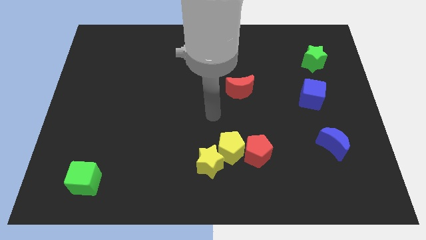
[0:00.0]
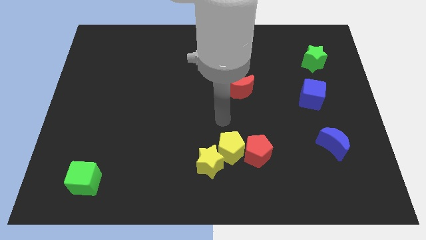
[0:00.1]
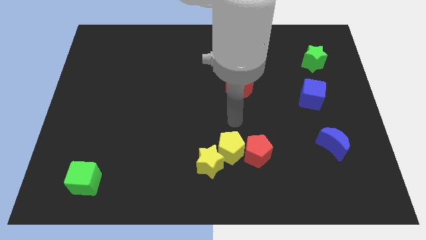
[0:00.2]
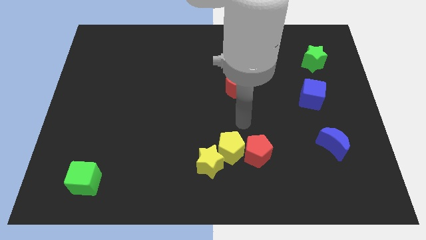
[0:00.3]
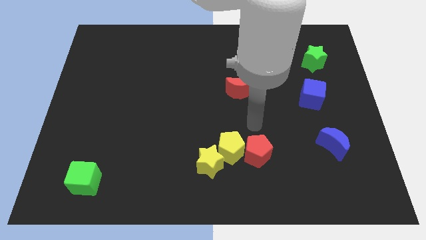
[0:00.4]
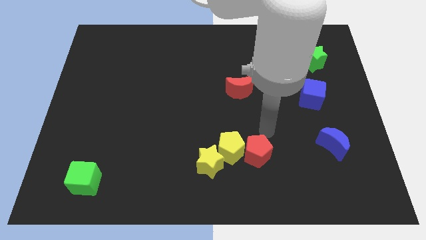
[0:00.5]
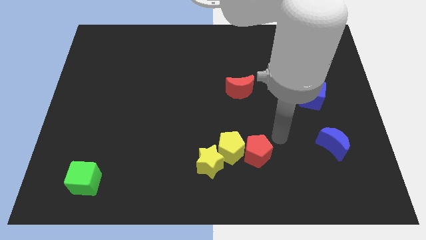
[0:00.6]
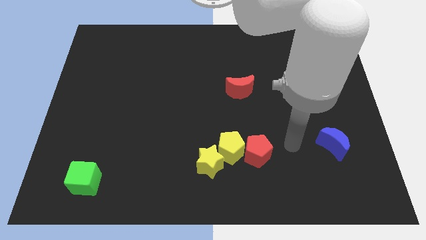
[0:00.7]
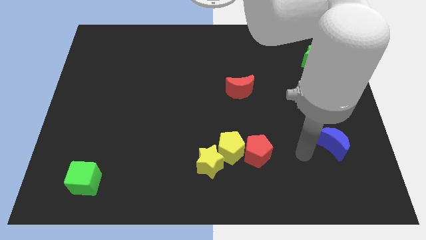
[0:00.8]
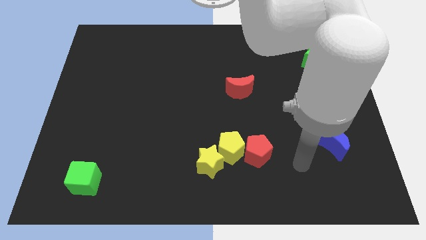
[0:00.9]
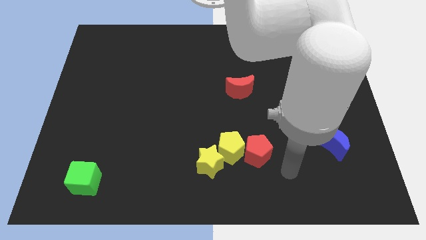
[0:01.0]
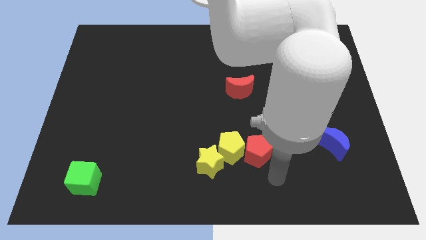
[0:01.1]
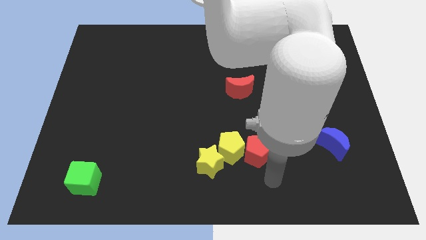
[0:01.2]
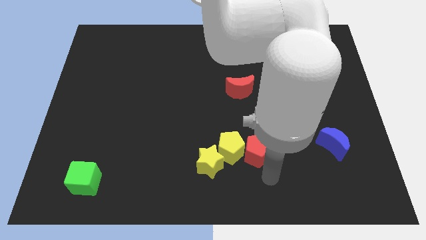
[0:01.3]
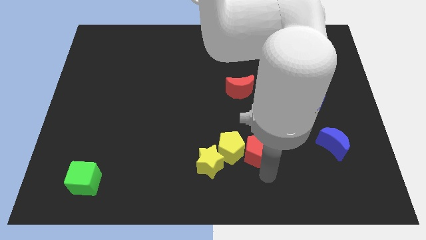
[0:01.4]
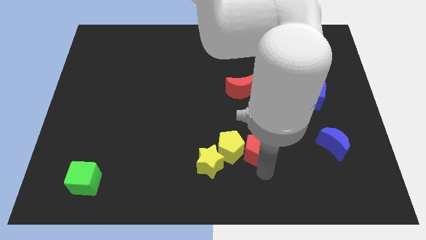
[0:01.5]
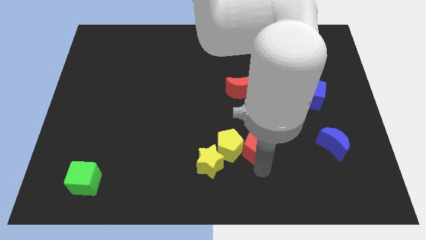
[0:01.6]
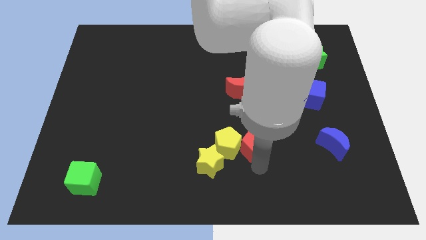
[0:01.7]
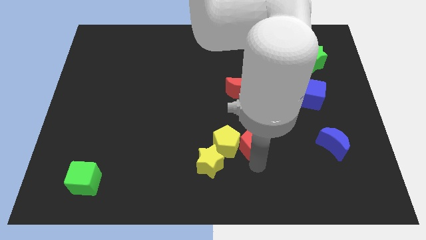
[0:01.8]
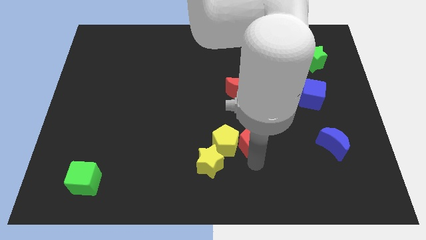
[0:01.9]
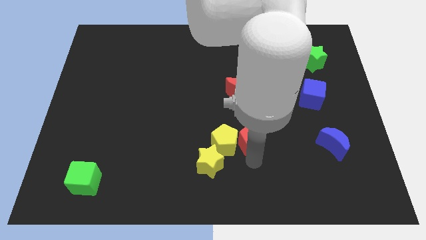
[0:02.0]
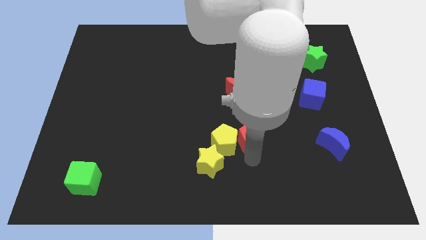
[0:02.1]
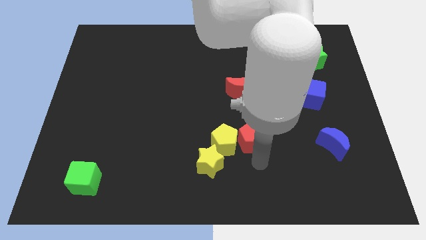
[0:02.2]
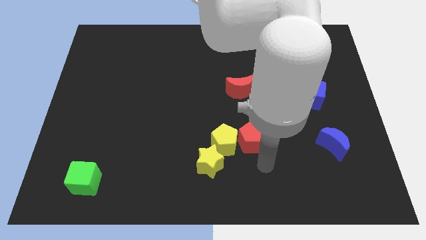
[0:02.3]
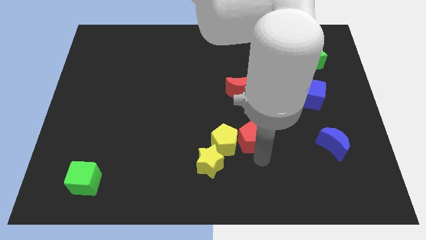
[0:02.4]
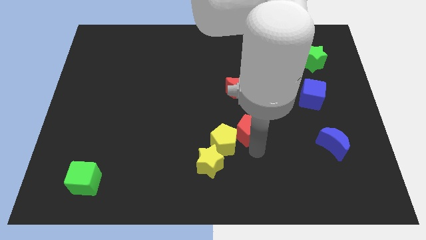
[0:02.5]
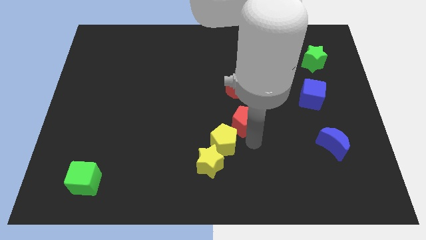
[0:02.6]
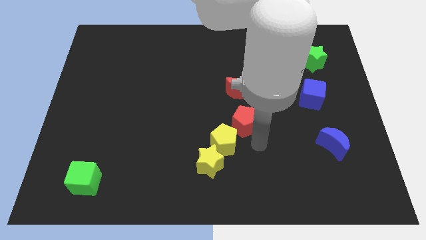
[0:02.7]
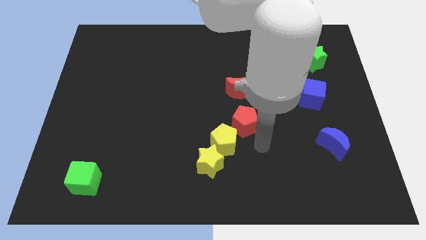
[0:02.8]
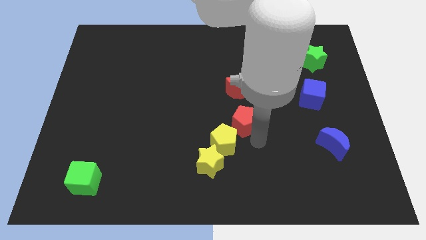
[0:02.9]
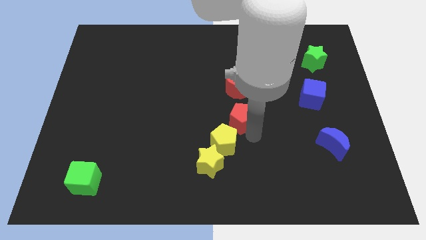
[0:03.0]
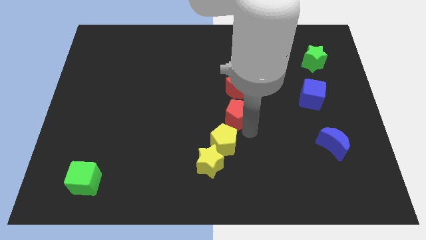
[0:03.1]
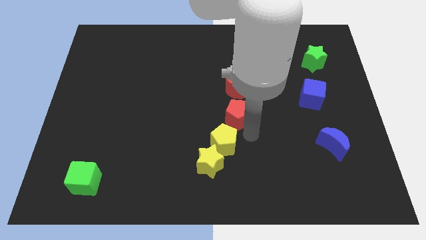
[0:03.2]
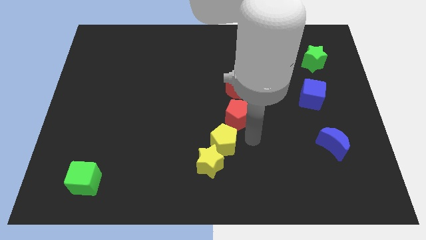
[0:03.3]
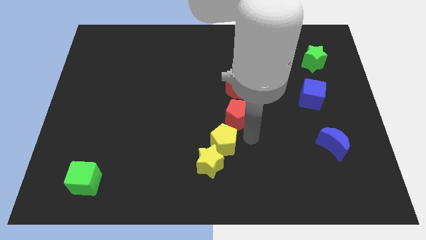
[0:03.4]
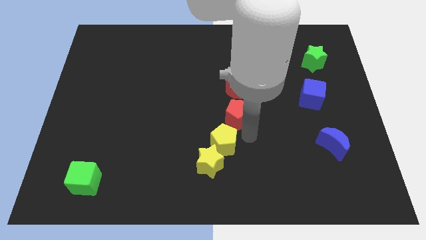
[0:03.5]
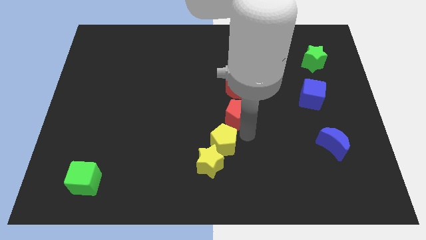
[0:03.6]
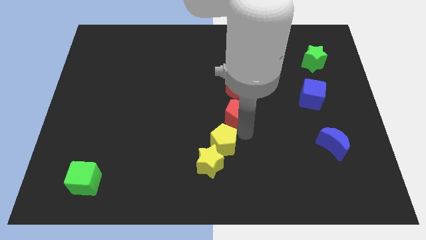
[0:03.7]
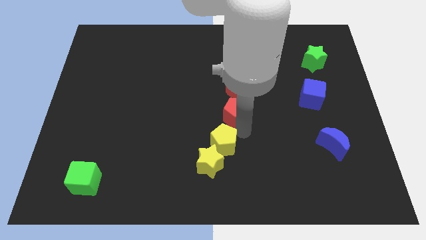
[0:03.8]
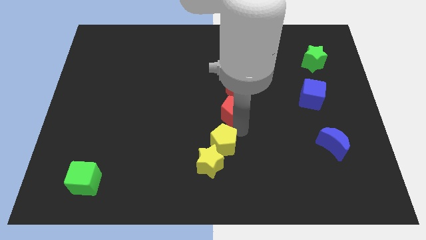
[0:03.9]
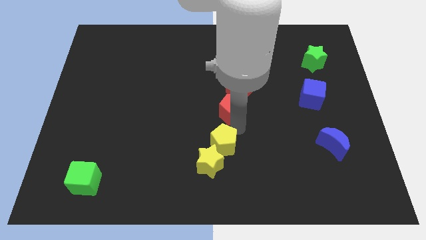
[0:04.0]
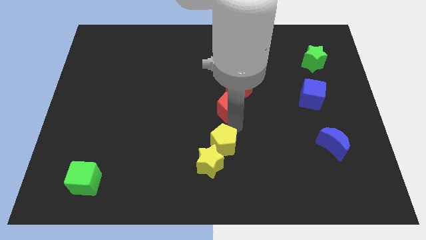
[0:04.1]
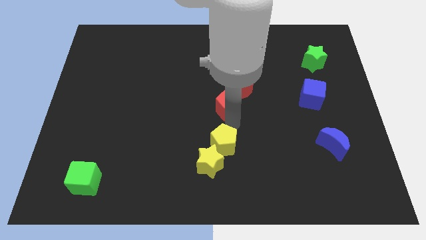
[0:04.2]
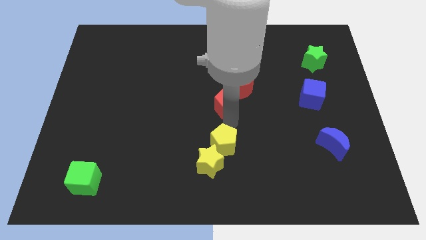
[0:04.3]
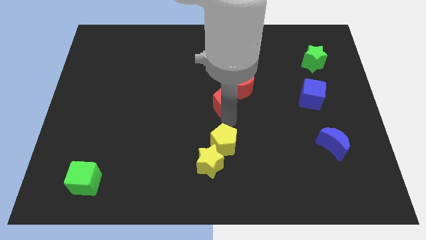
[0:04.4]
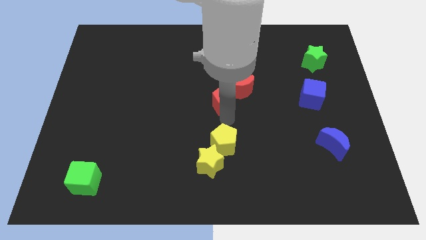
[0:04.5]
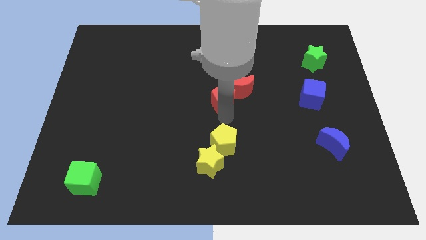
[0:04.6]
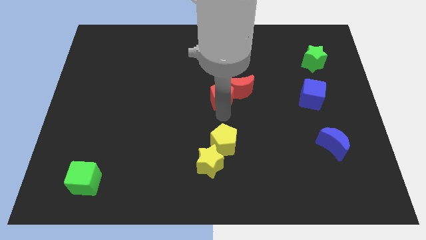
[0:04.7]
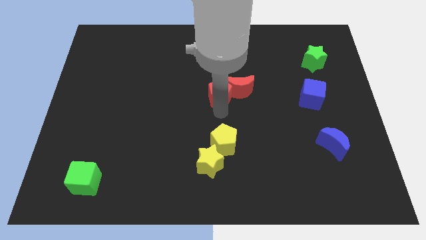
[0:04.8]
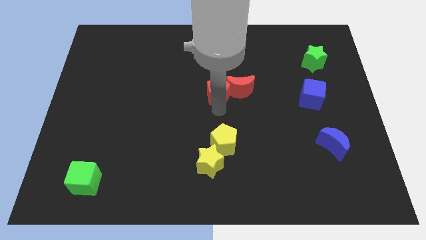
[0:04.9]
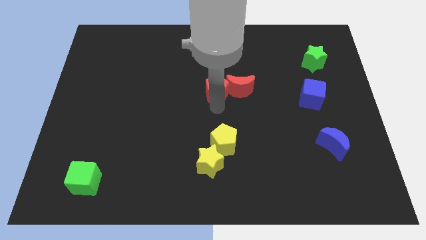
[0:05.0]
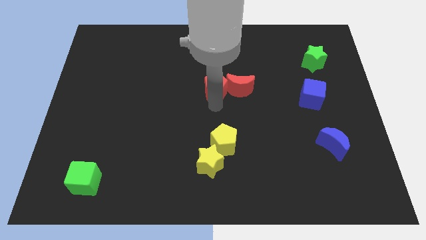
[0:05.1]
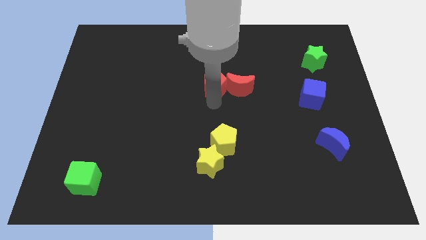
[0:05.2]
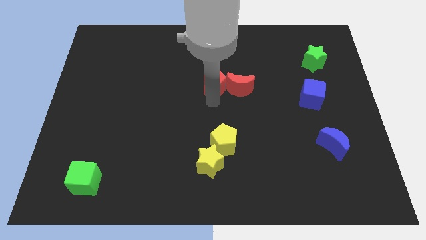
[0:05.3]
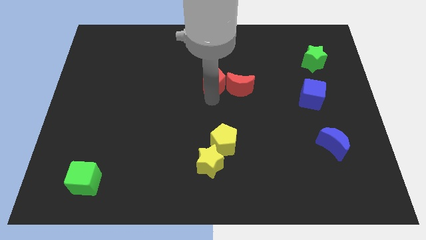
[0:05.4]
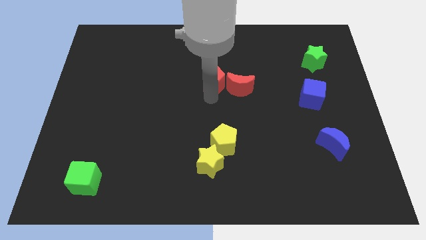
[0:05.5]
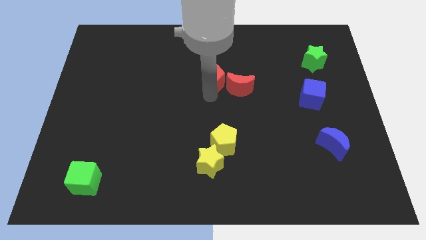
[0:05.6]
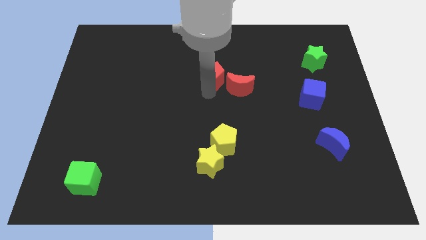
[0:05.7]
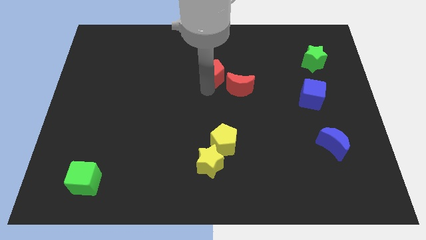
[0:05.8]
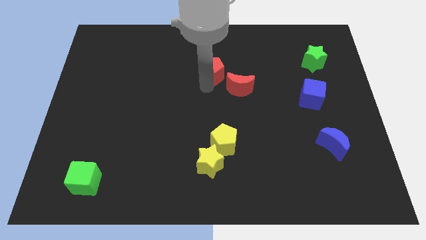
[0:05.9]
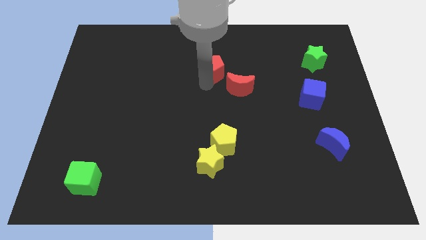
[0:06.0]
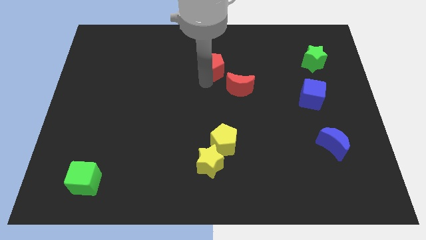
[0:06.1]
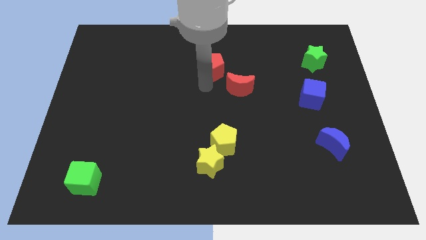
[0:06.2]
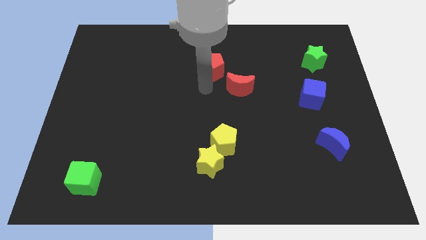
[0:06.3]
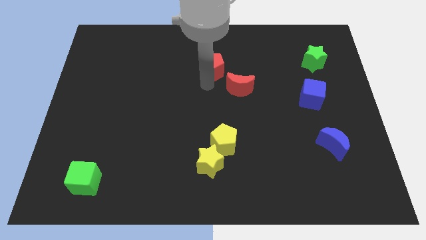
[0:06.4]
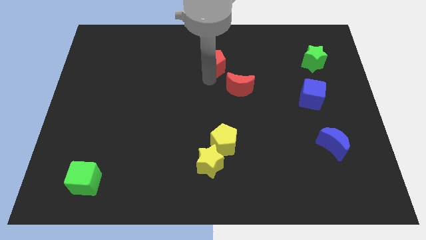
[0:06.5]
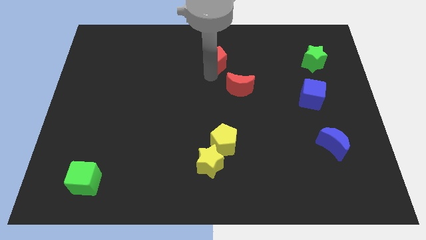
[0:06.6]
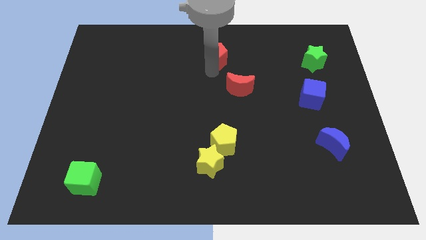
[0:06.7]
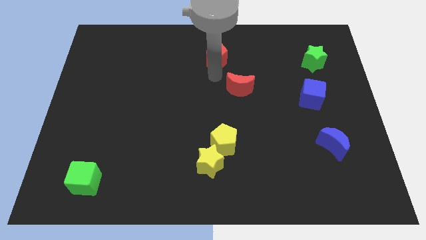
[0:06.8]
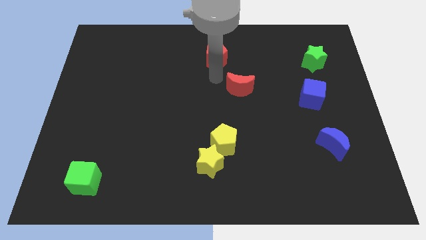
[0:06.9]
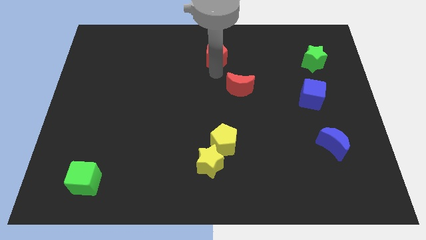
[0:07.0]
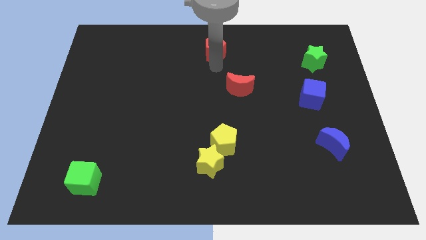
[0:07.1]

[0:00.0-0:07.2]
slide the red pentagon to the towards your base
